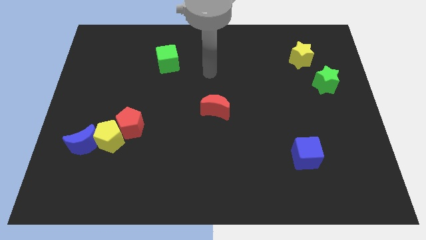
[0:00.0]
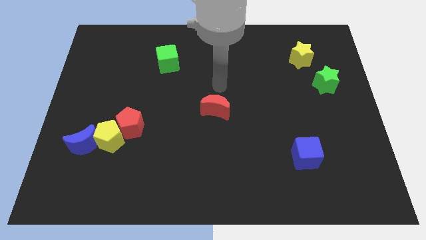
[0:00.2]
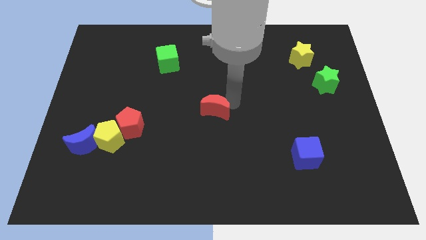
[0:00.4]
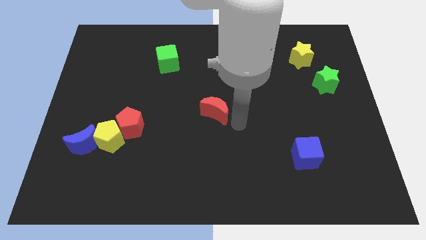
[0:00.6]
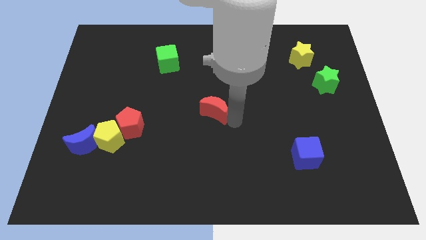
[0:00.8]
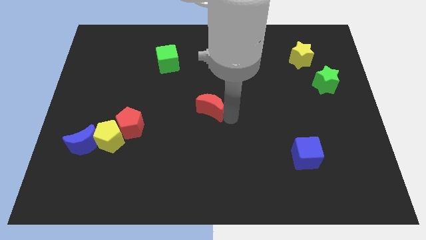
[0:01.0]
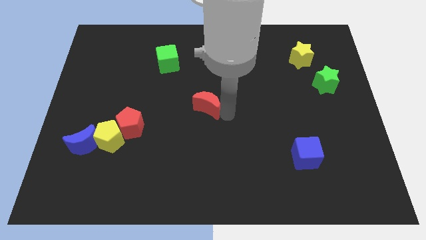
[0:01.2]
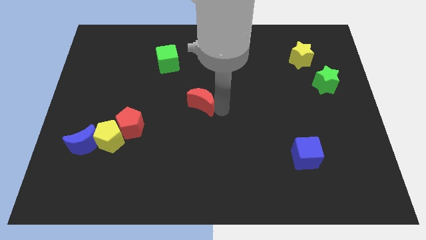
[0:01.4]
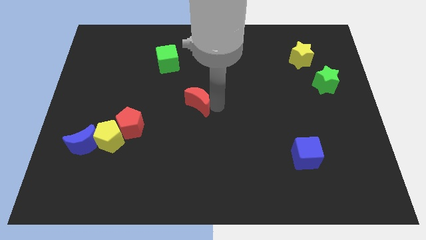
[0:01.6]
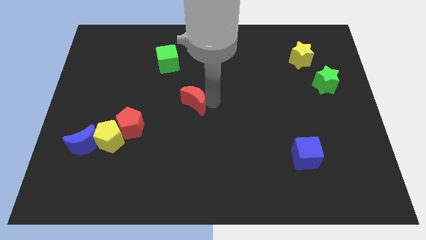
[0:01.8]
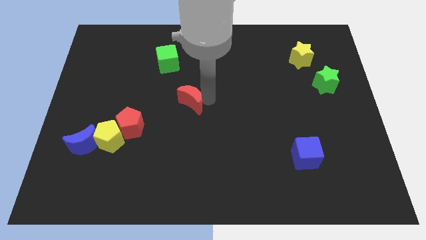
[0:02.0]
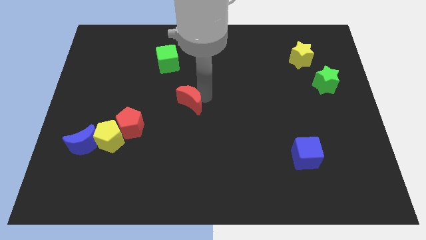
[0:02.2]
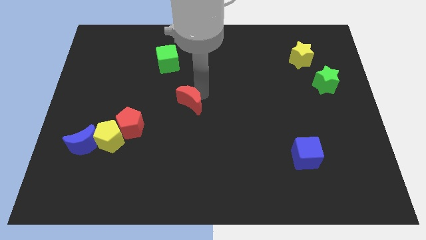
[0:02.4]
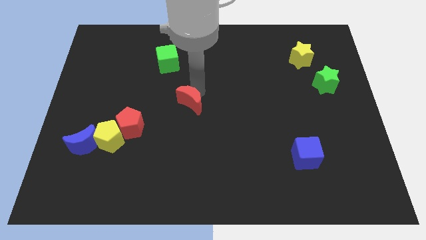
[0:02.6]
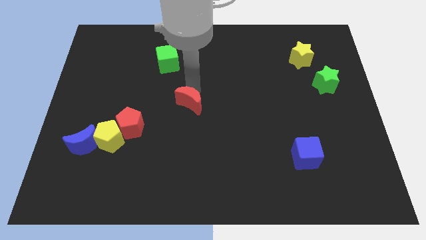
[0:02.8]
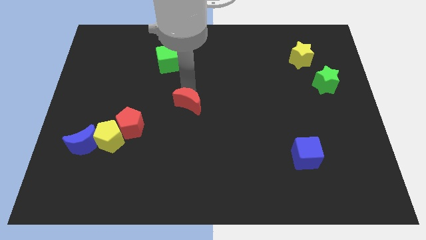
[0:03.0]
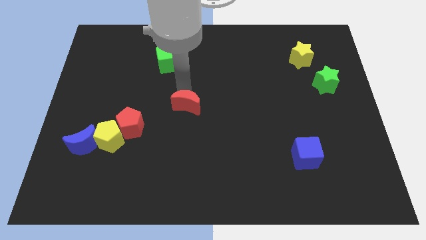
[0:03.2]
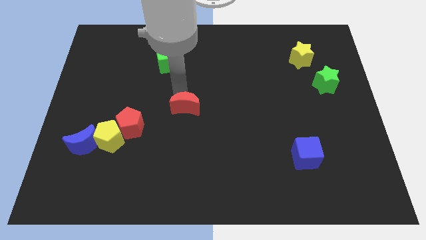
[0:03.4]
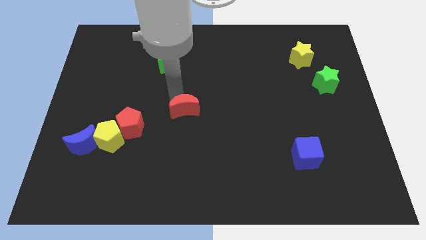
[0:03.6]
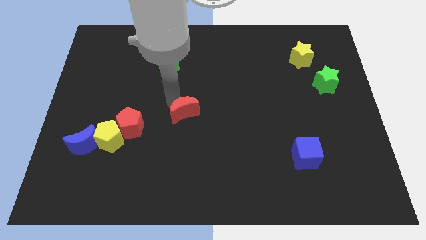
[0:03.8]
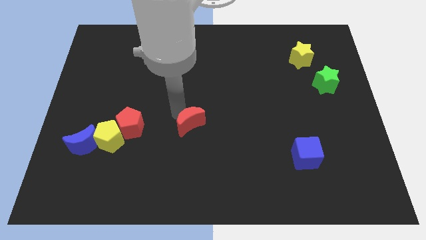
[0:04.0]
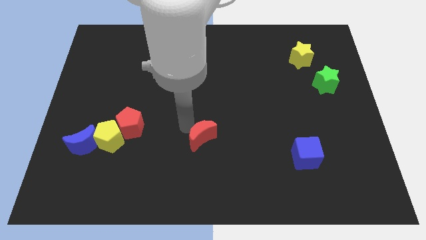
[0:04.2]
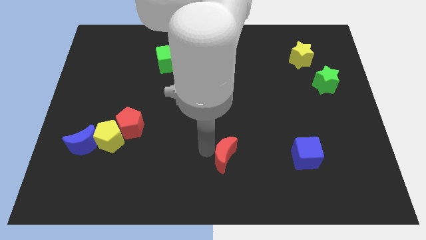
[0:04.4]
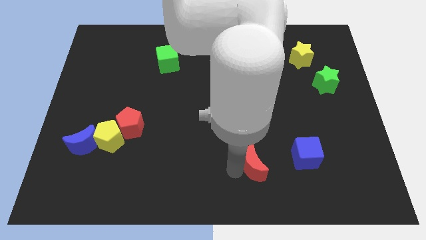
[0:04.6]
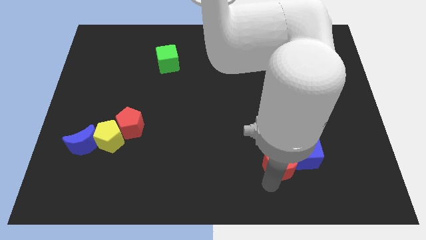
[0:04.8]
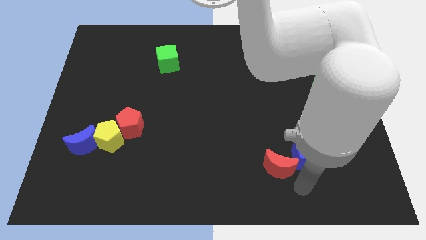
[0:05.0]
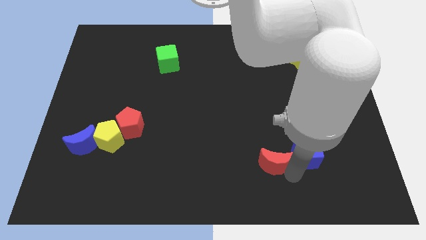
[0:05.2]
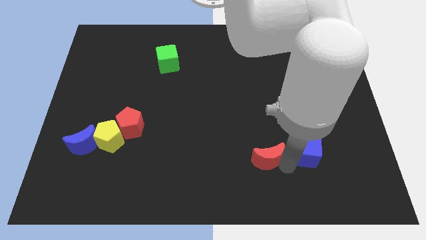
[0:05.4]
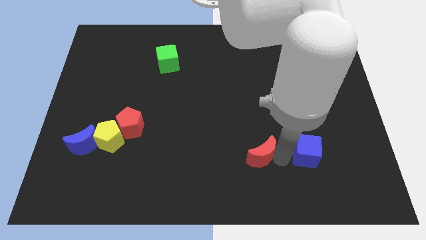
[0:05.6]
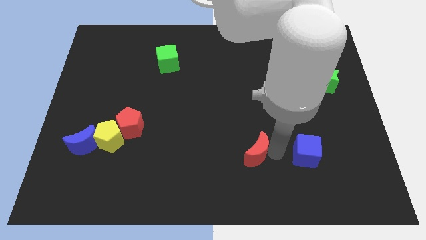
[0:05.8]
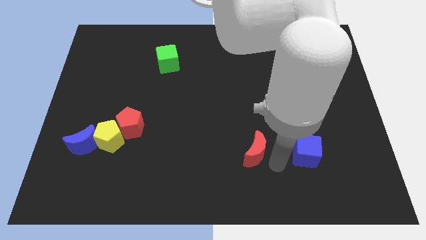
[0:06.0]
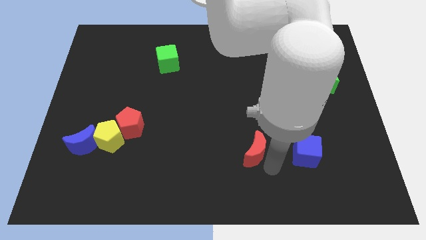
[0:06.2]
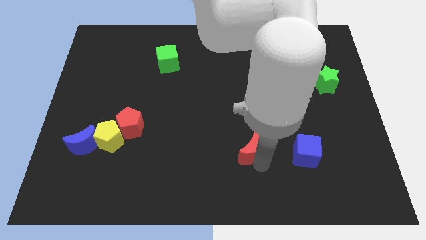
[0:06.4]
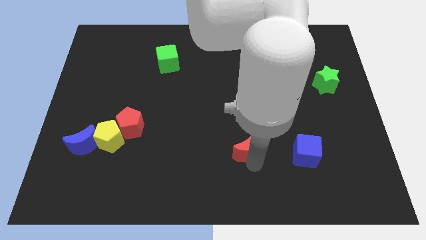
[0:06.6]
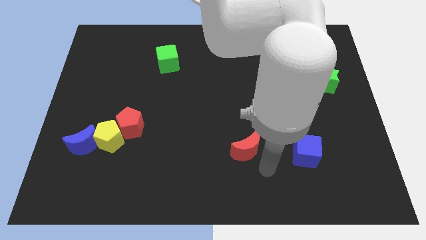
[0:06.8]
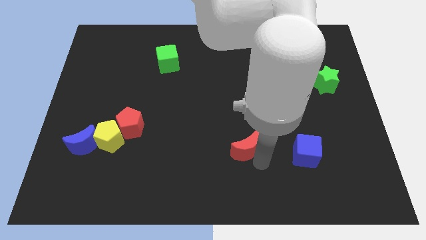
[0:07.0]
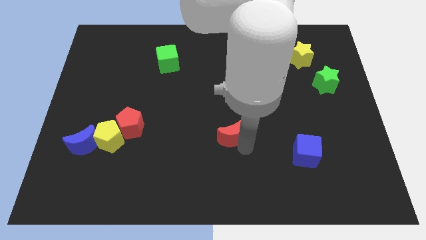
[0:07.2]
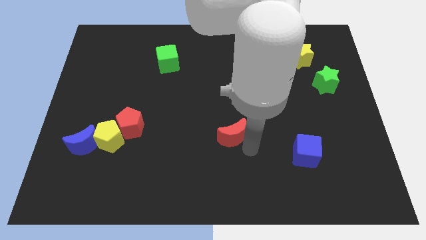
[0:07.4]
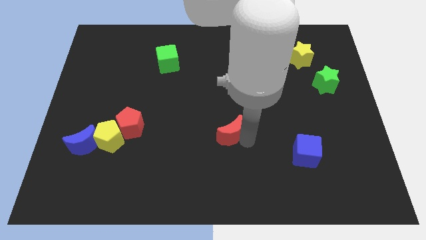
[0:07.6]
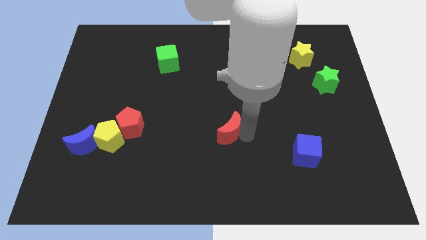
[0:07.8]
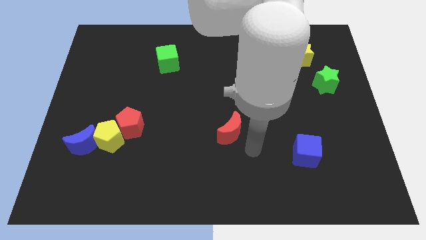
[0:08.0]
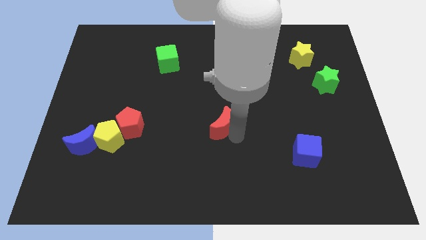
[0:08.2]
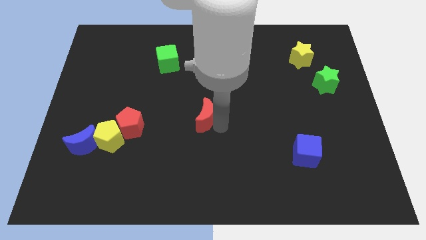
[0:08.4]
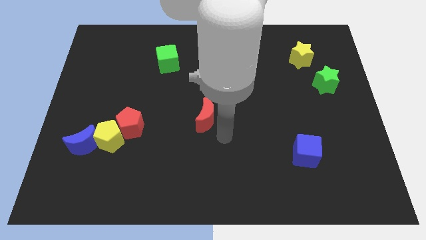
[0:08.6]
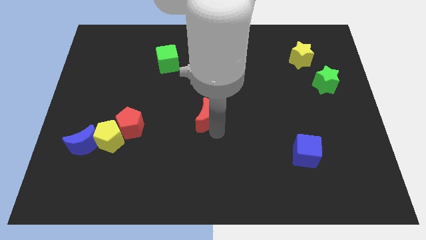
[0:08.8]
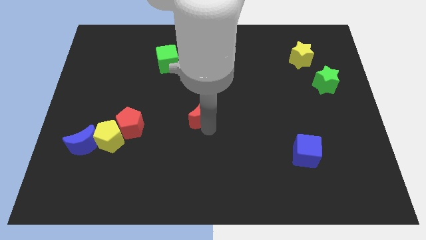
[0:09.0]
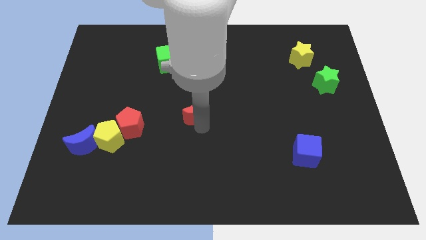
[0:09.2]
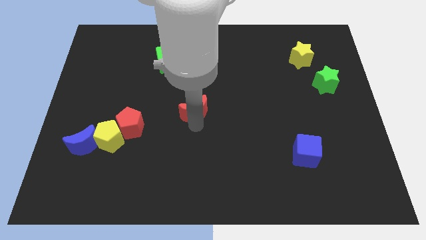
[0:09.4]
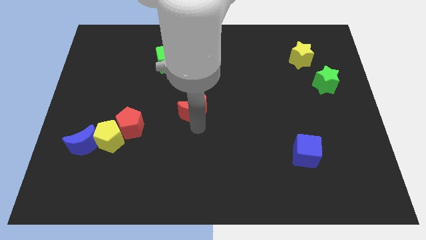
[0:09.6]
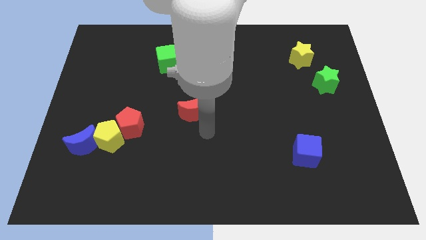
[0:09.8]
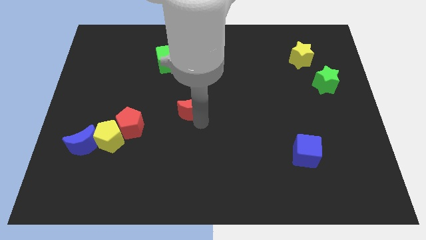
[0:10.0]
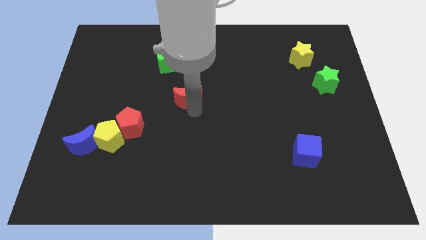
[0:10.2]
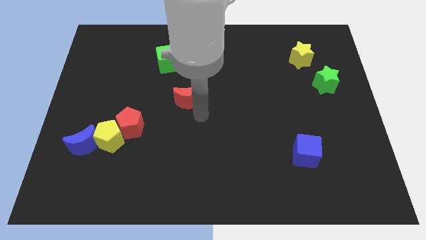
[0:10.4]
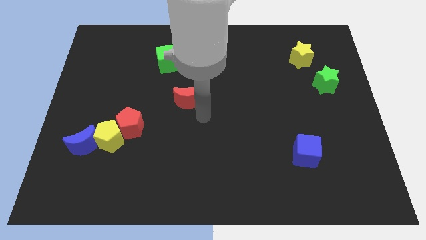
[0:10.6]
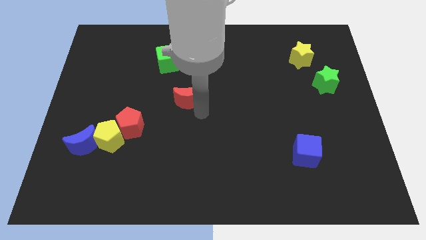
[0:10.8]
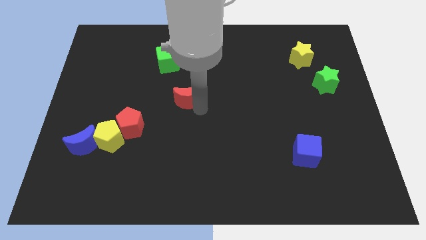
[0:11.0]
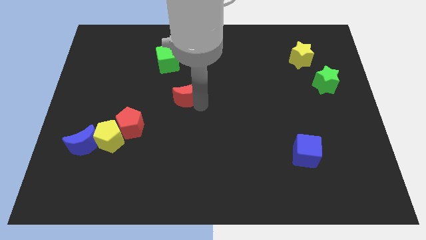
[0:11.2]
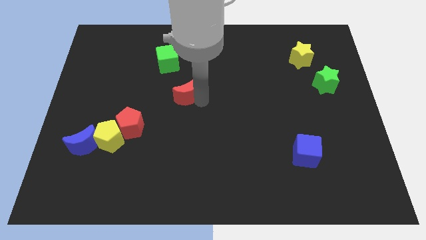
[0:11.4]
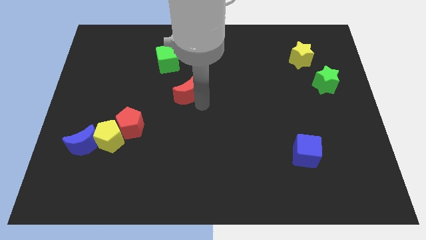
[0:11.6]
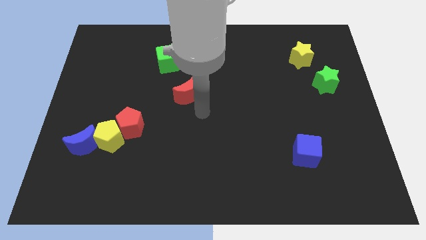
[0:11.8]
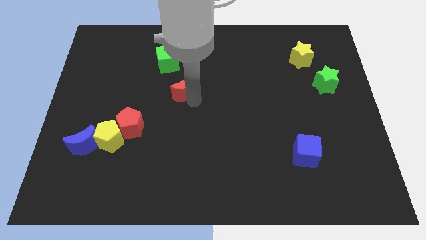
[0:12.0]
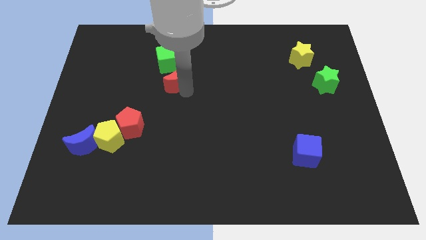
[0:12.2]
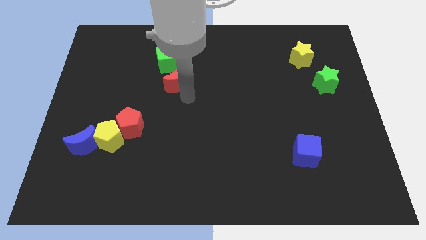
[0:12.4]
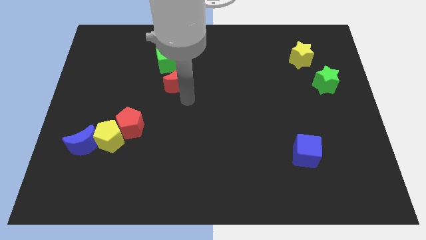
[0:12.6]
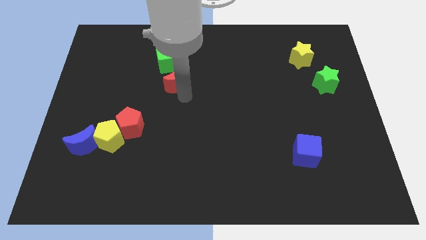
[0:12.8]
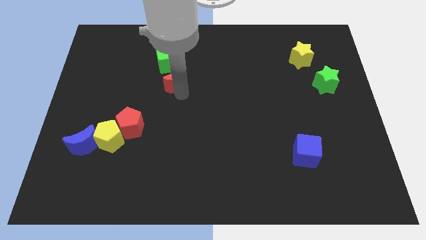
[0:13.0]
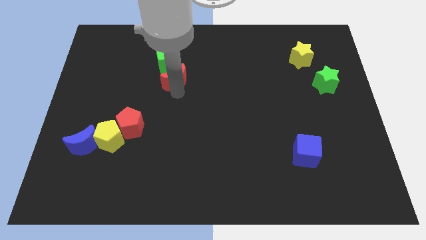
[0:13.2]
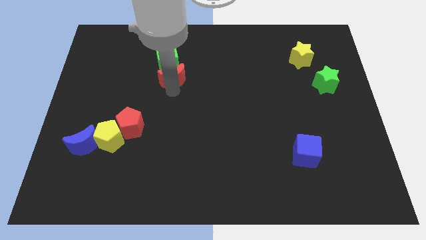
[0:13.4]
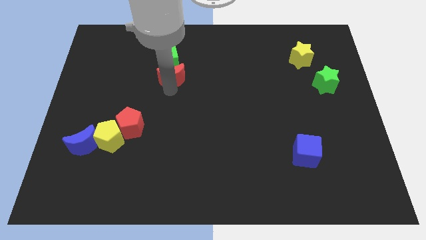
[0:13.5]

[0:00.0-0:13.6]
move the red moon towards the green cube
